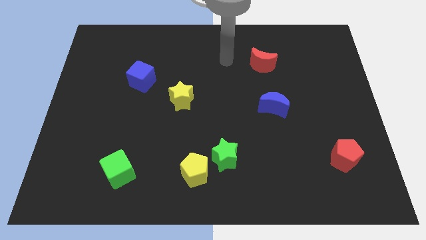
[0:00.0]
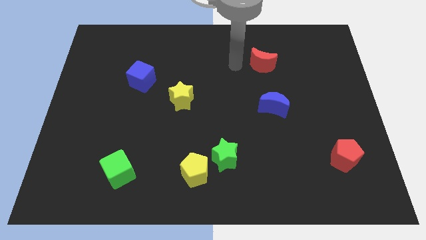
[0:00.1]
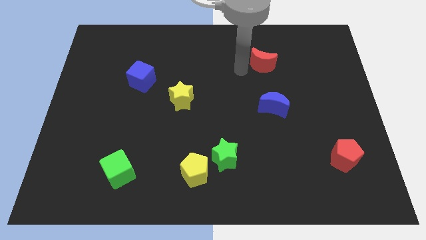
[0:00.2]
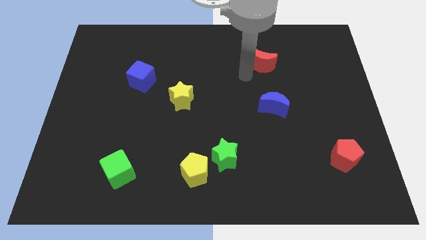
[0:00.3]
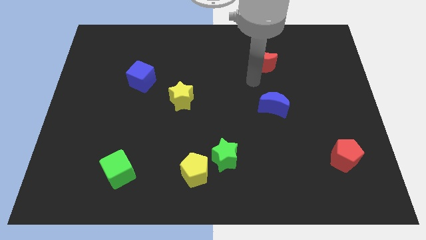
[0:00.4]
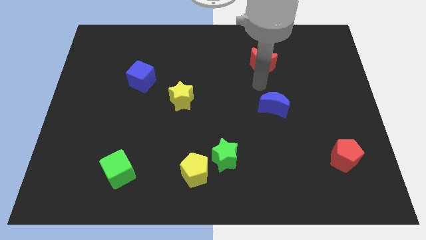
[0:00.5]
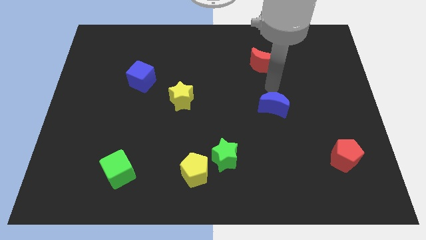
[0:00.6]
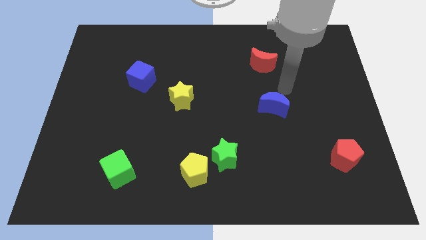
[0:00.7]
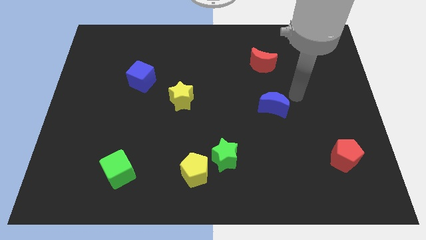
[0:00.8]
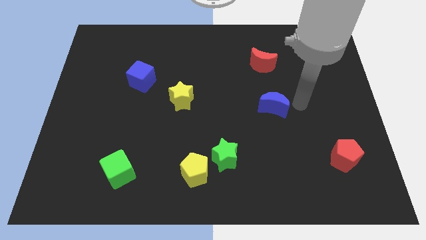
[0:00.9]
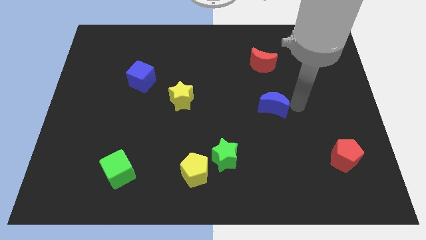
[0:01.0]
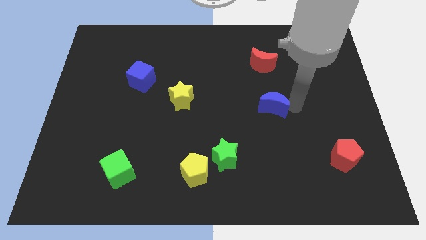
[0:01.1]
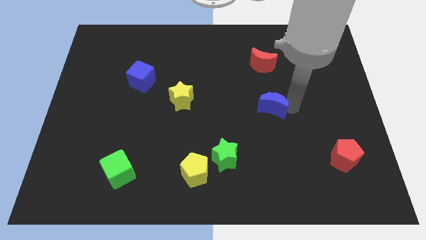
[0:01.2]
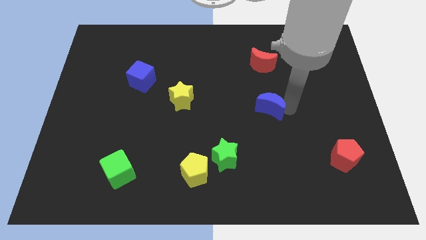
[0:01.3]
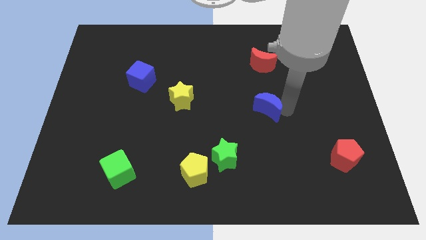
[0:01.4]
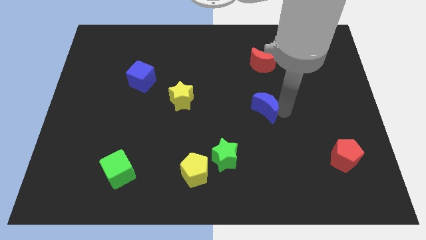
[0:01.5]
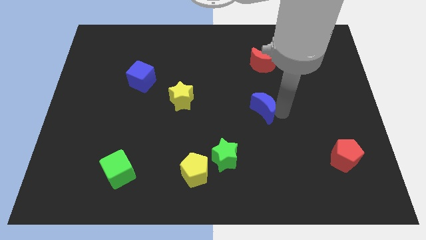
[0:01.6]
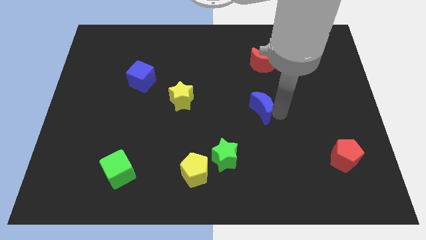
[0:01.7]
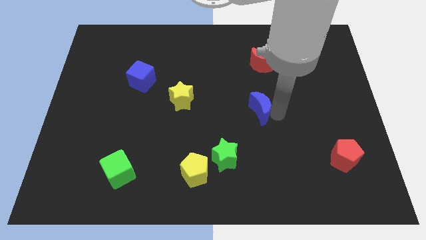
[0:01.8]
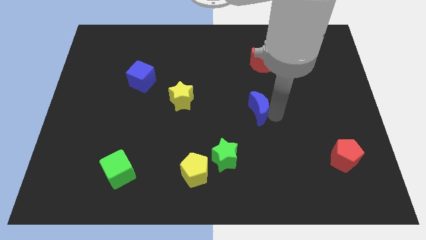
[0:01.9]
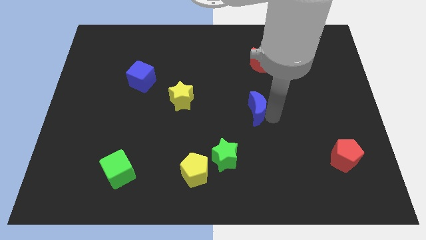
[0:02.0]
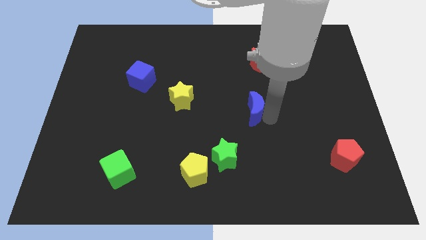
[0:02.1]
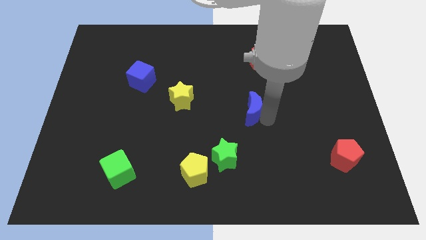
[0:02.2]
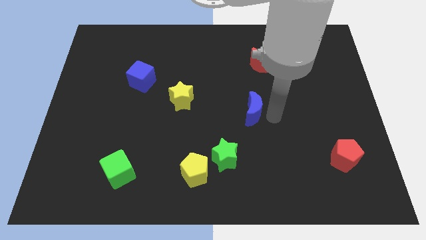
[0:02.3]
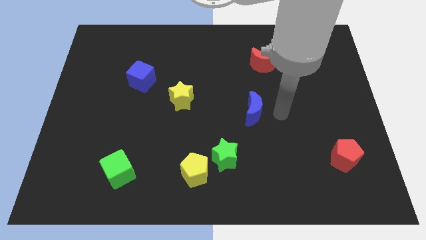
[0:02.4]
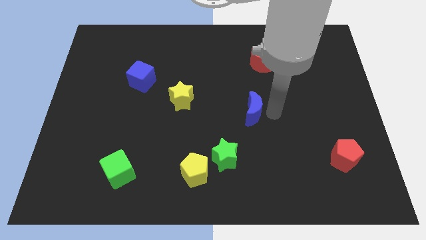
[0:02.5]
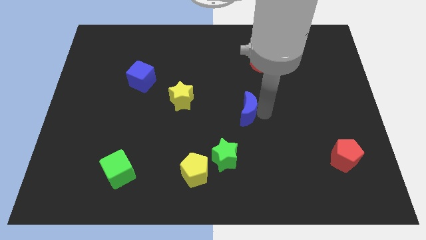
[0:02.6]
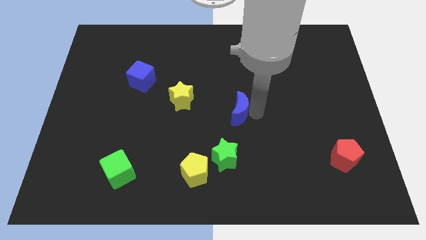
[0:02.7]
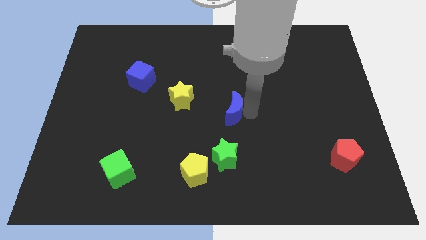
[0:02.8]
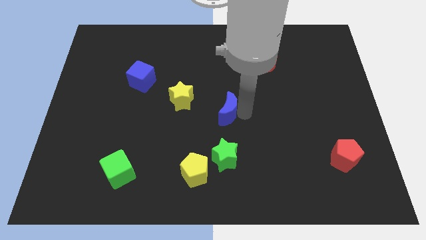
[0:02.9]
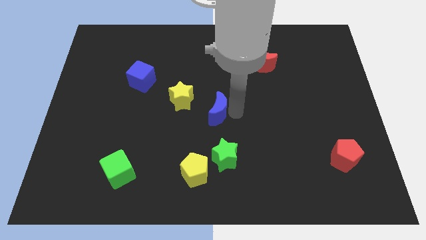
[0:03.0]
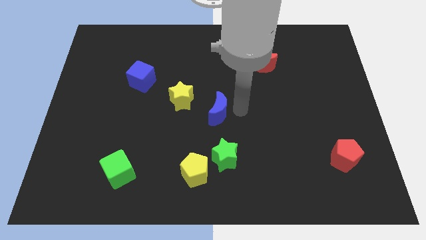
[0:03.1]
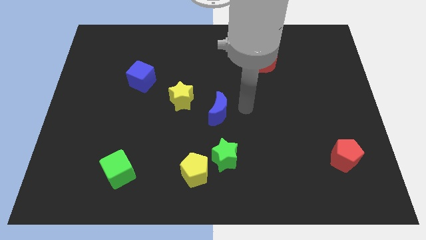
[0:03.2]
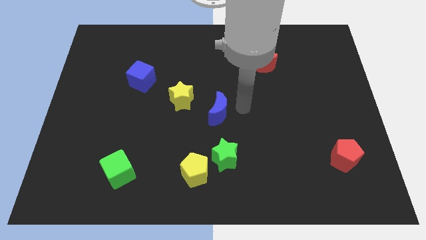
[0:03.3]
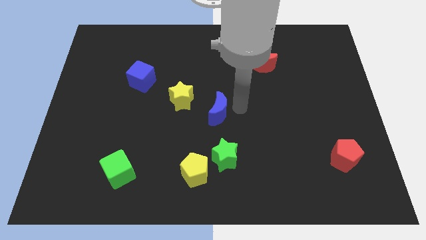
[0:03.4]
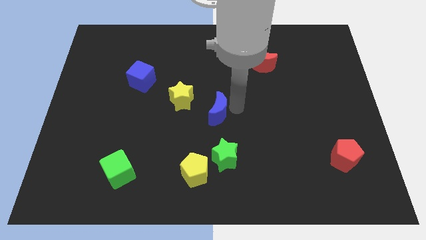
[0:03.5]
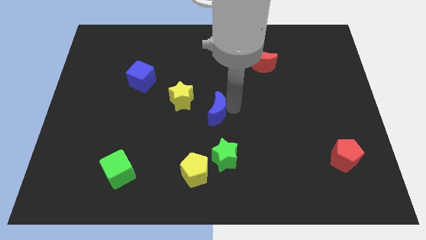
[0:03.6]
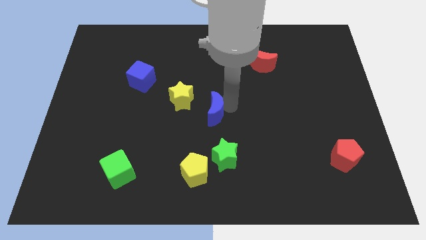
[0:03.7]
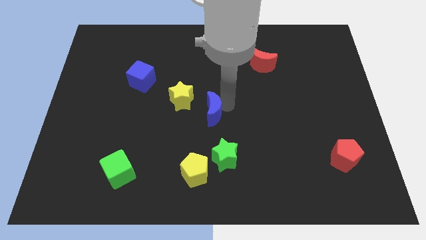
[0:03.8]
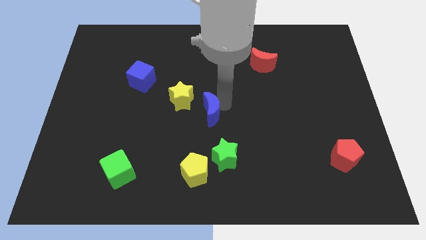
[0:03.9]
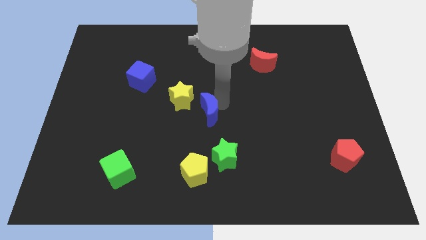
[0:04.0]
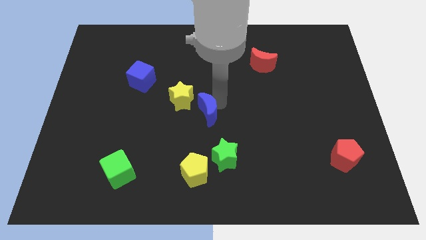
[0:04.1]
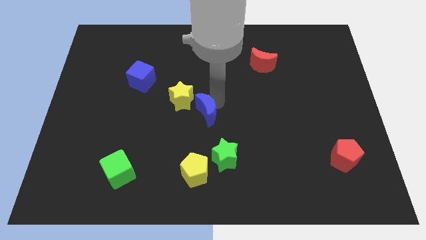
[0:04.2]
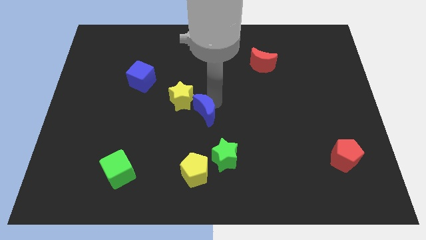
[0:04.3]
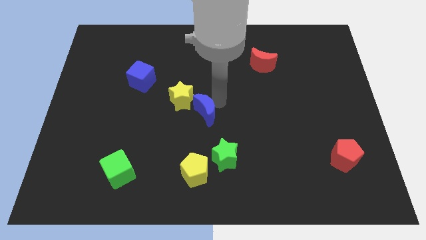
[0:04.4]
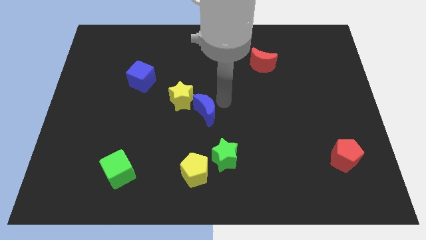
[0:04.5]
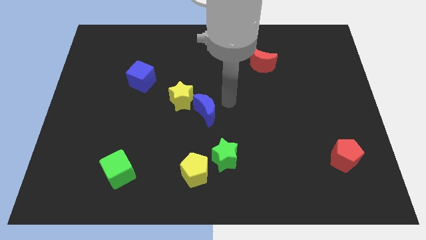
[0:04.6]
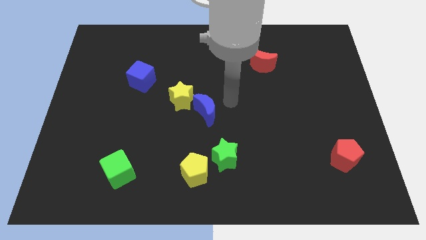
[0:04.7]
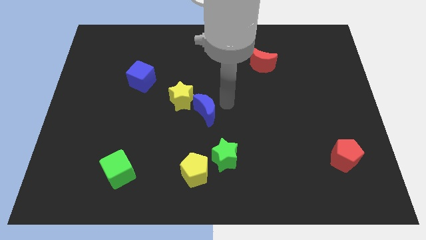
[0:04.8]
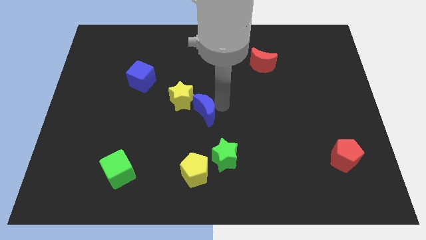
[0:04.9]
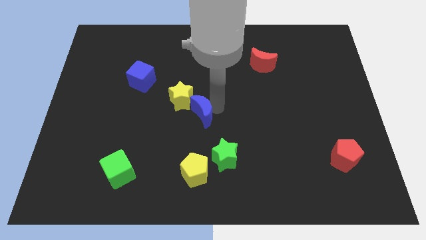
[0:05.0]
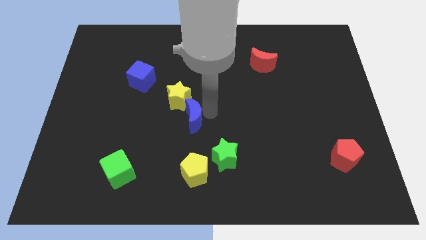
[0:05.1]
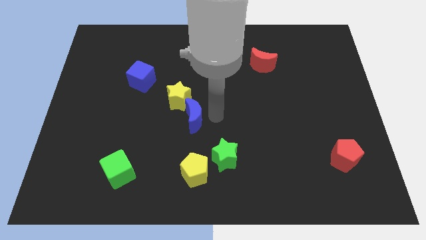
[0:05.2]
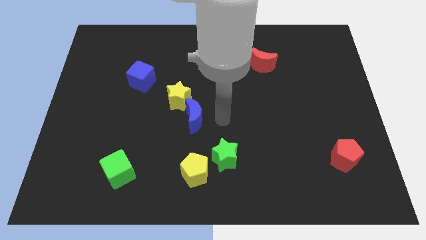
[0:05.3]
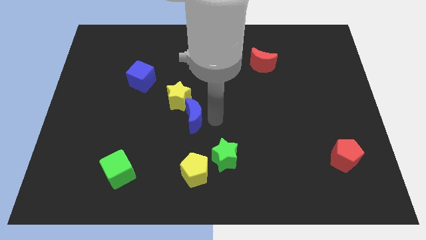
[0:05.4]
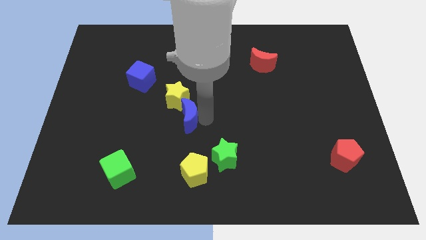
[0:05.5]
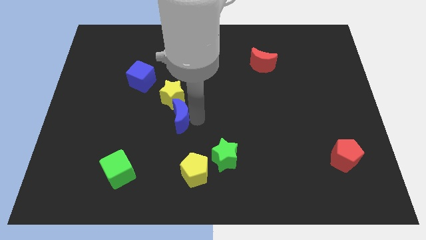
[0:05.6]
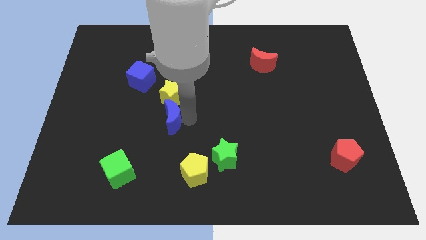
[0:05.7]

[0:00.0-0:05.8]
push the blue moon diagonally down and to the left of the yellow star

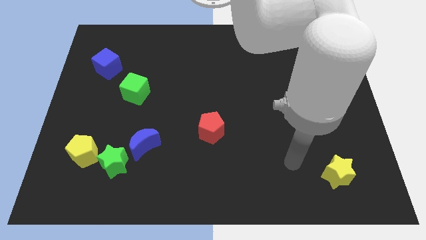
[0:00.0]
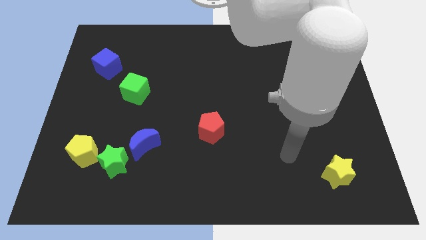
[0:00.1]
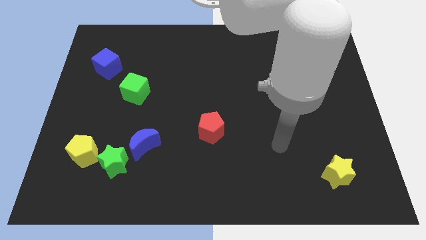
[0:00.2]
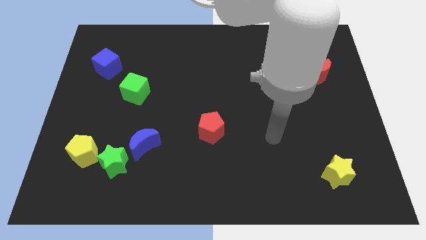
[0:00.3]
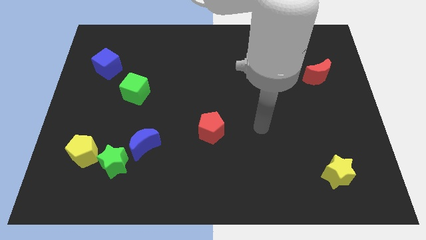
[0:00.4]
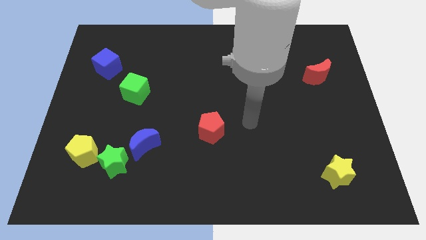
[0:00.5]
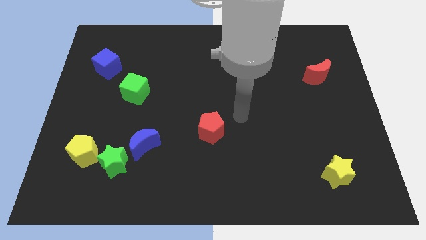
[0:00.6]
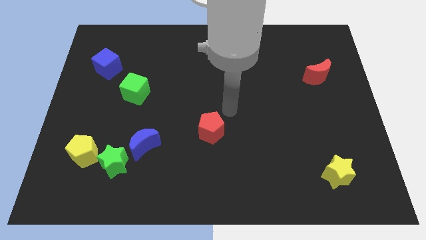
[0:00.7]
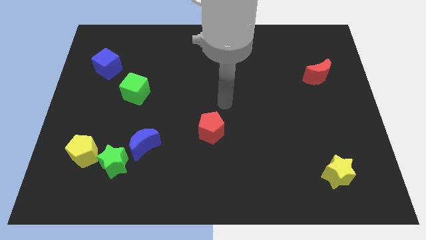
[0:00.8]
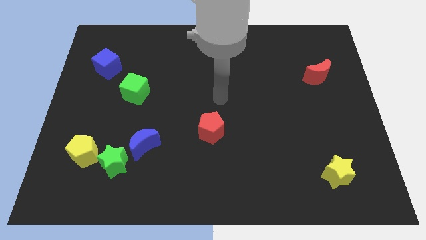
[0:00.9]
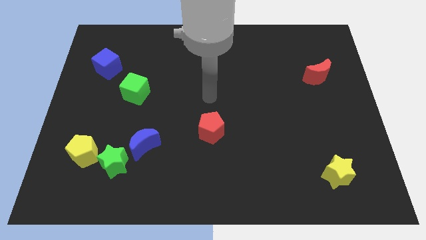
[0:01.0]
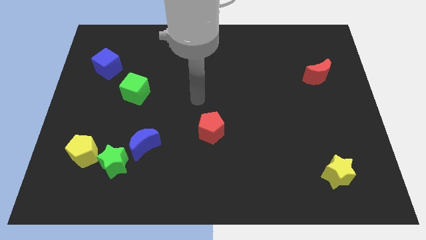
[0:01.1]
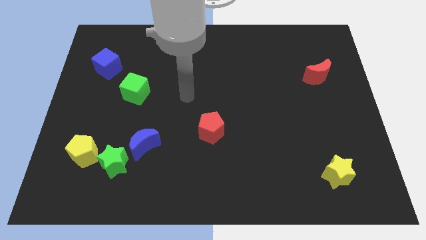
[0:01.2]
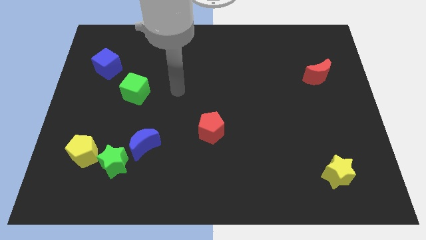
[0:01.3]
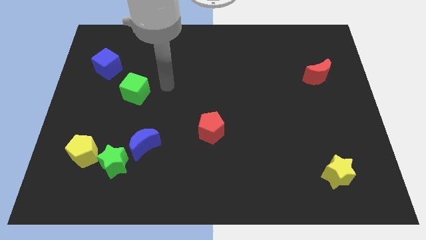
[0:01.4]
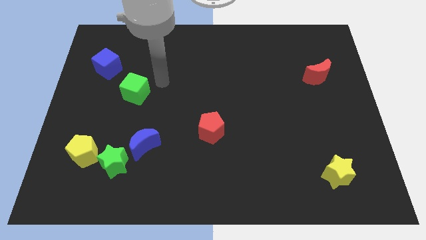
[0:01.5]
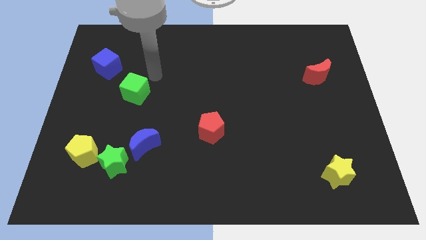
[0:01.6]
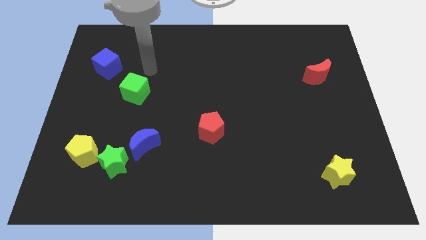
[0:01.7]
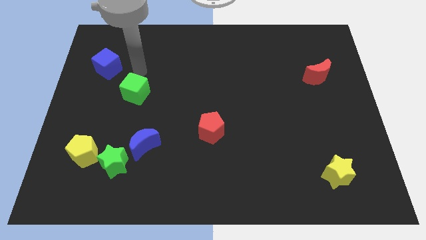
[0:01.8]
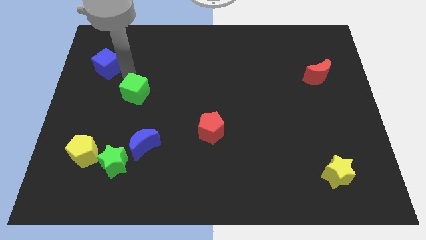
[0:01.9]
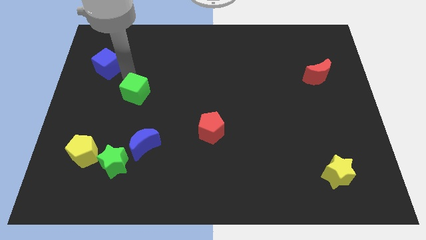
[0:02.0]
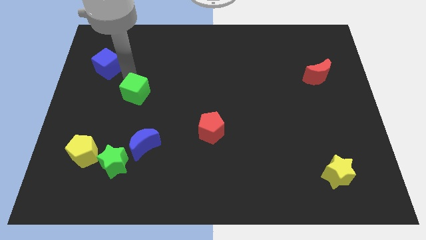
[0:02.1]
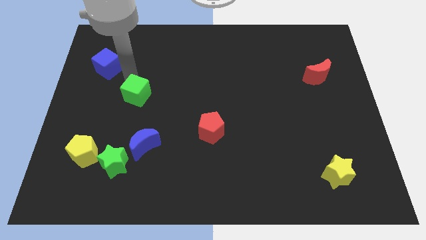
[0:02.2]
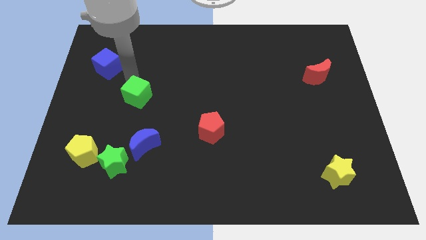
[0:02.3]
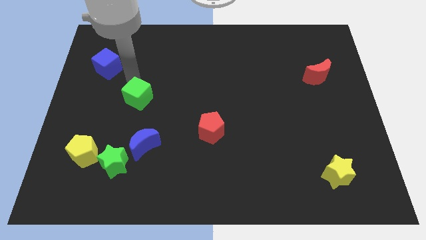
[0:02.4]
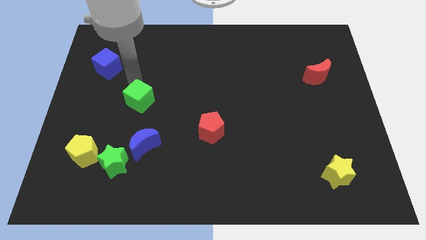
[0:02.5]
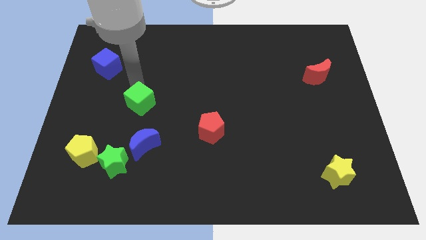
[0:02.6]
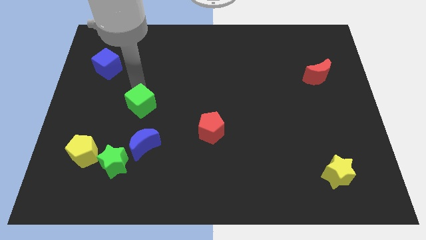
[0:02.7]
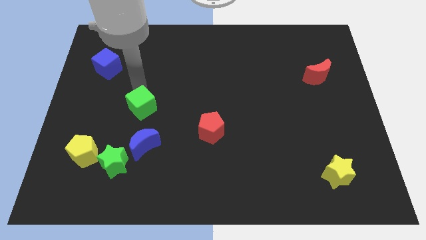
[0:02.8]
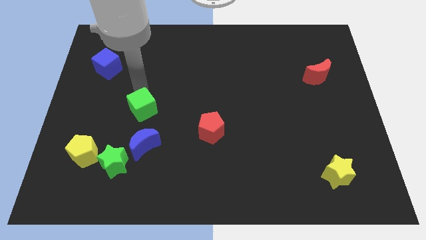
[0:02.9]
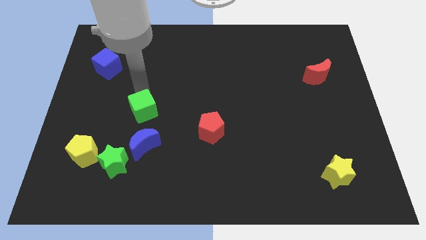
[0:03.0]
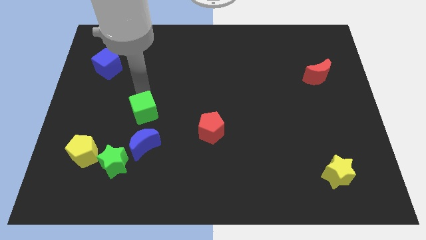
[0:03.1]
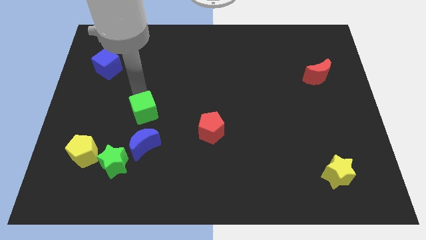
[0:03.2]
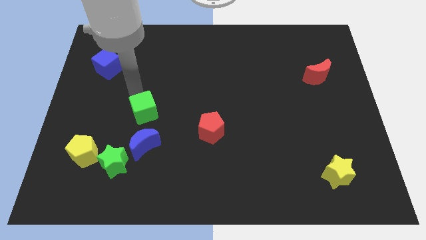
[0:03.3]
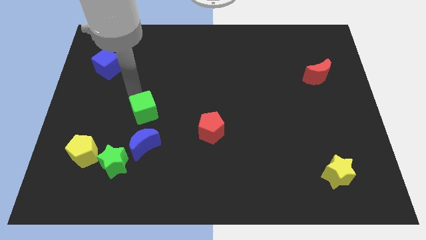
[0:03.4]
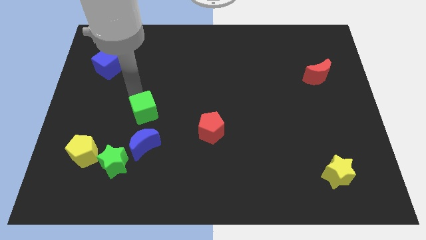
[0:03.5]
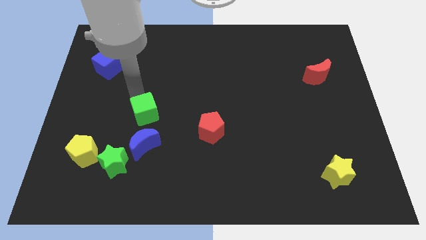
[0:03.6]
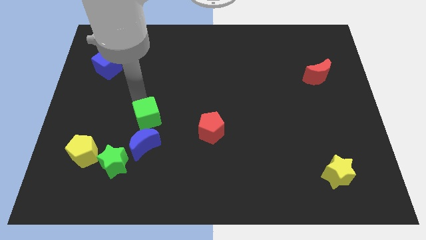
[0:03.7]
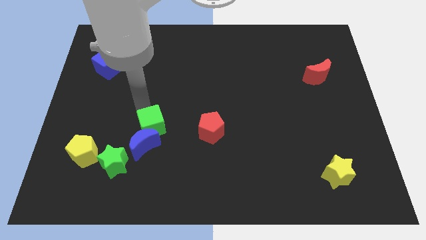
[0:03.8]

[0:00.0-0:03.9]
push the green cube to the top right of the green star
